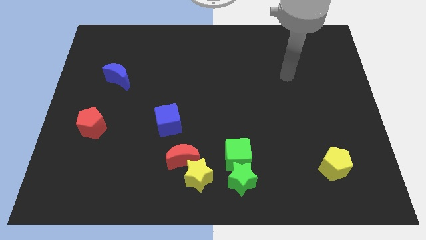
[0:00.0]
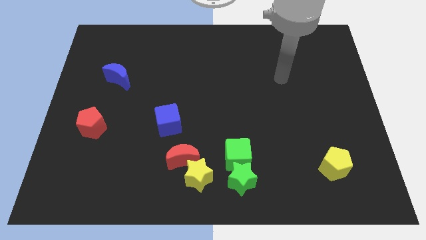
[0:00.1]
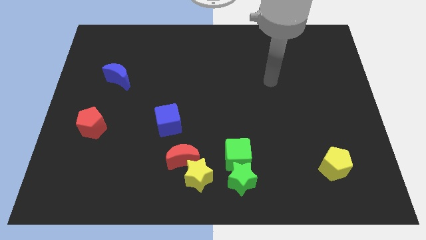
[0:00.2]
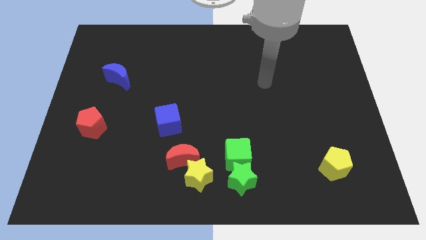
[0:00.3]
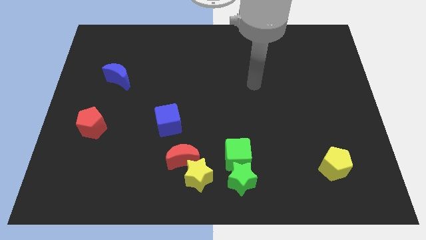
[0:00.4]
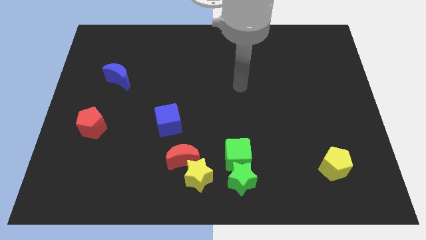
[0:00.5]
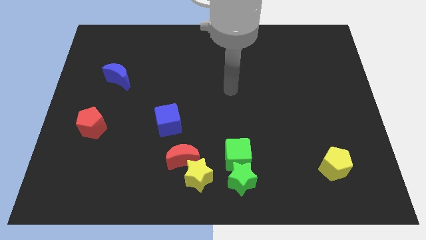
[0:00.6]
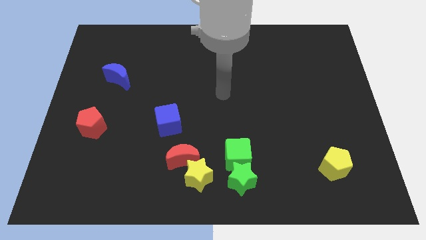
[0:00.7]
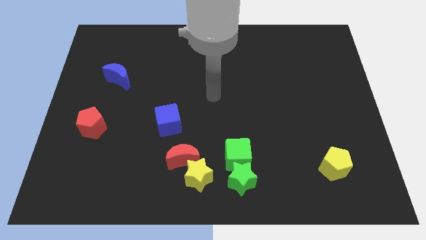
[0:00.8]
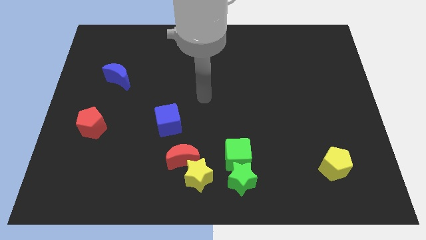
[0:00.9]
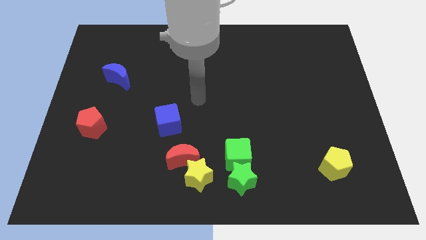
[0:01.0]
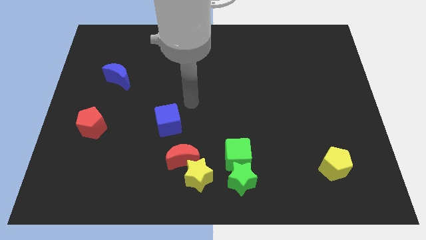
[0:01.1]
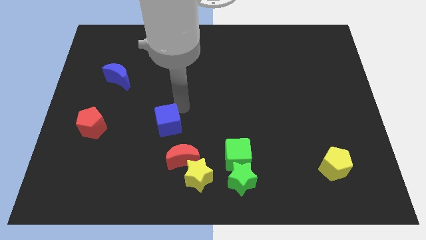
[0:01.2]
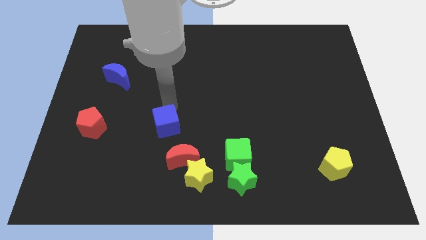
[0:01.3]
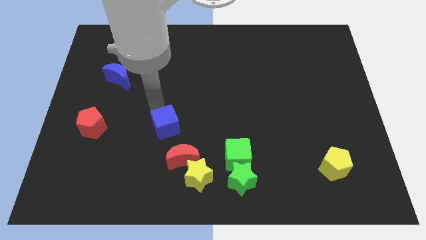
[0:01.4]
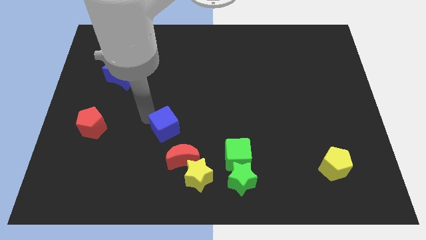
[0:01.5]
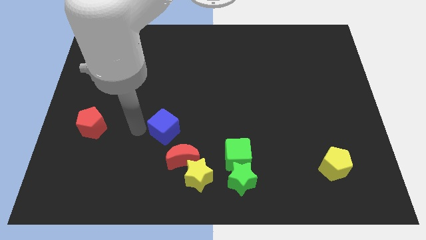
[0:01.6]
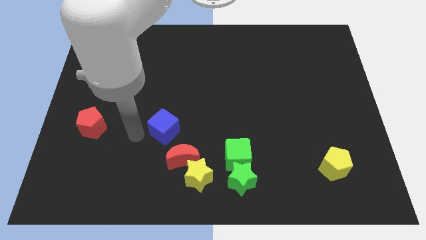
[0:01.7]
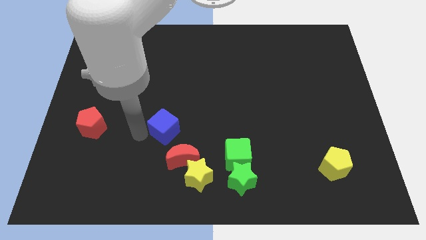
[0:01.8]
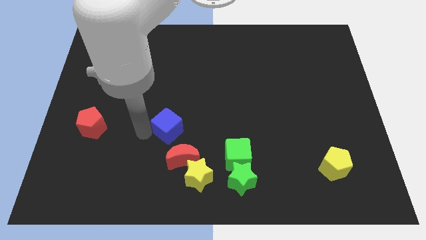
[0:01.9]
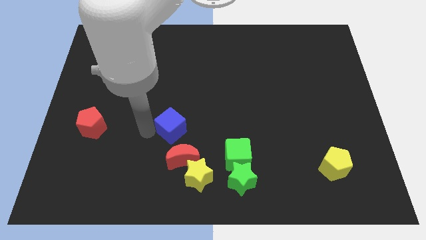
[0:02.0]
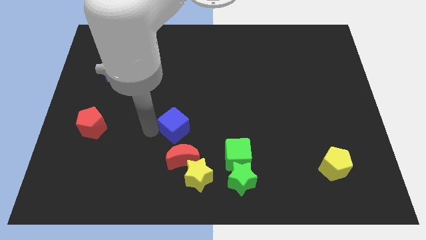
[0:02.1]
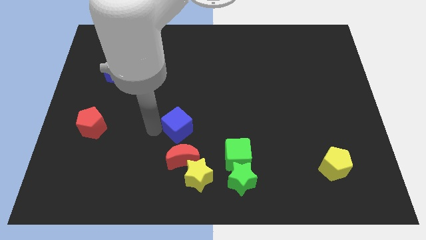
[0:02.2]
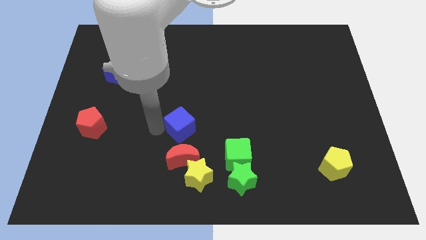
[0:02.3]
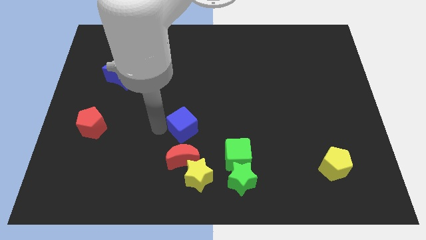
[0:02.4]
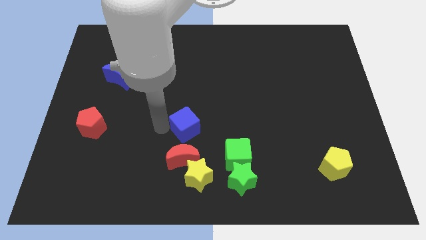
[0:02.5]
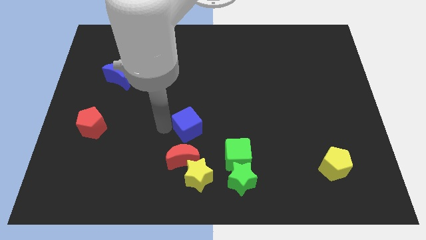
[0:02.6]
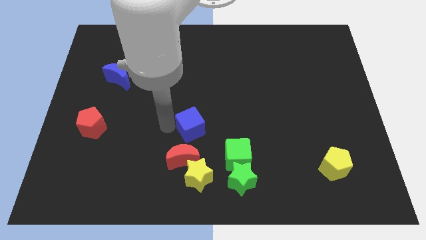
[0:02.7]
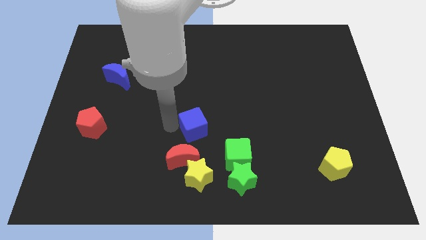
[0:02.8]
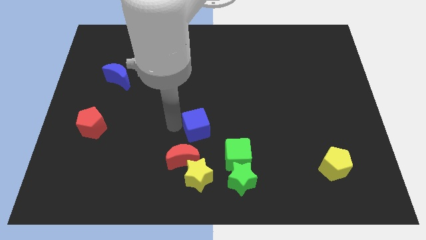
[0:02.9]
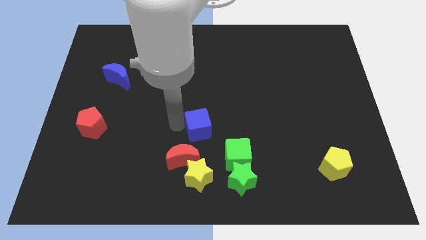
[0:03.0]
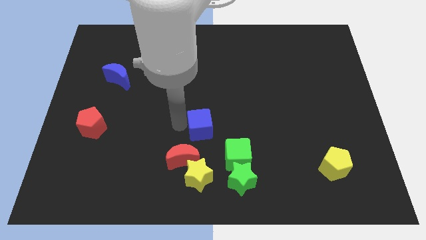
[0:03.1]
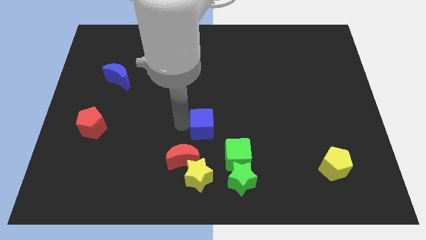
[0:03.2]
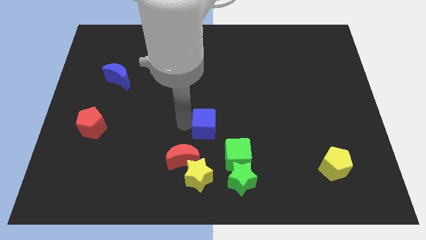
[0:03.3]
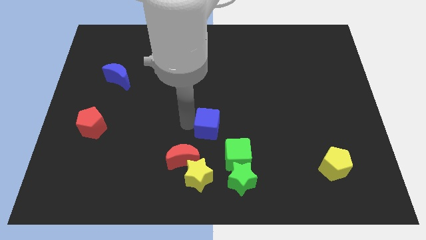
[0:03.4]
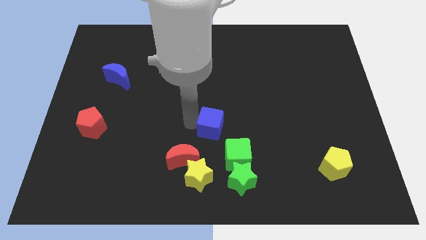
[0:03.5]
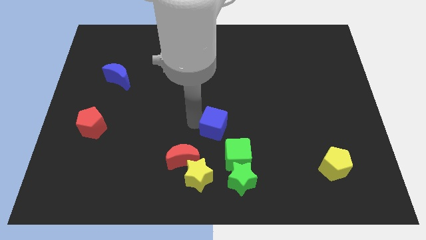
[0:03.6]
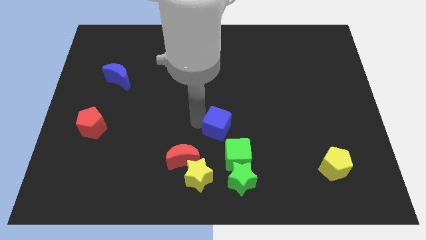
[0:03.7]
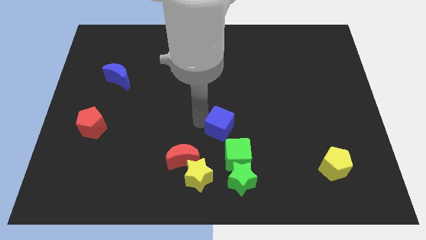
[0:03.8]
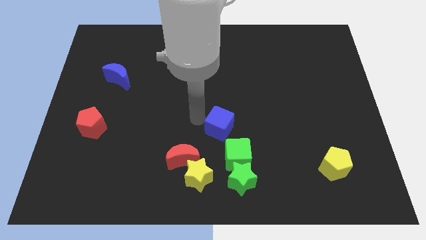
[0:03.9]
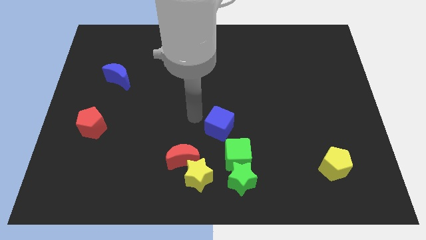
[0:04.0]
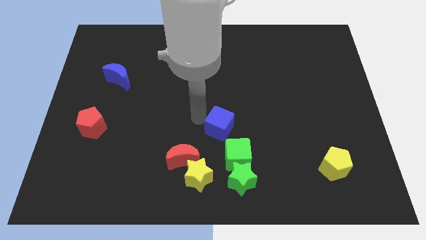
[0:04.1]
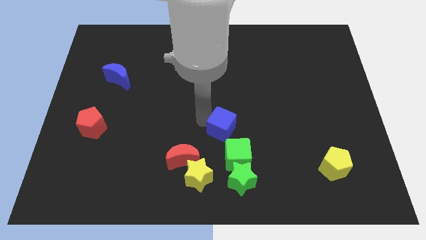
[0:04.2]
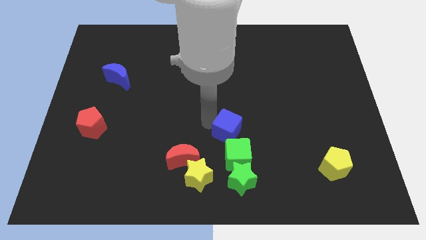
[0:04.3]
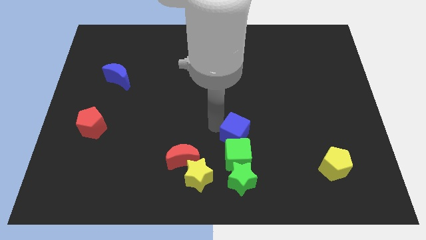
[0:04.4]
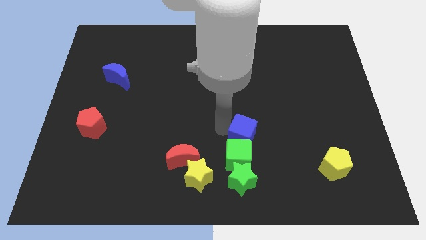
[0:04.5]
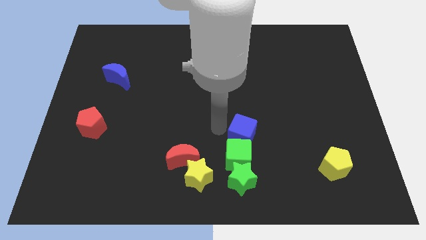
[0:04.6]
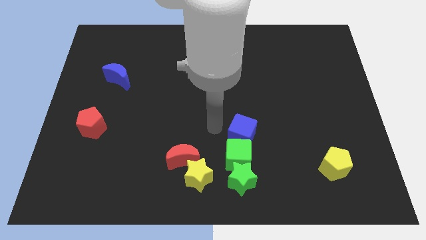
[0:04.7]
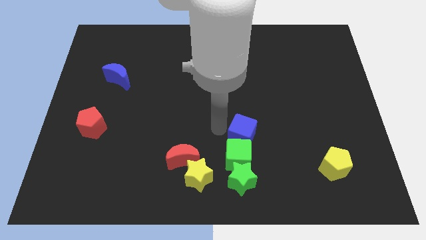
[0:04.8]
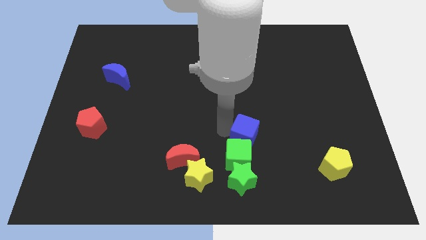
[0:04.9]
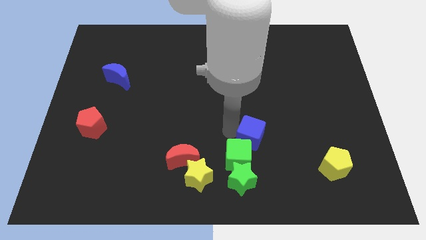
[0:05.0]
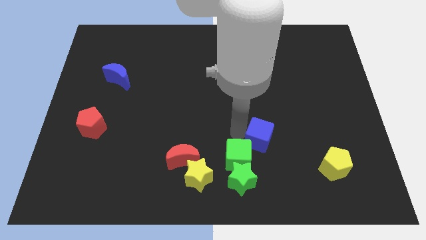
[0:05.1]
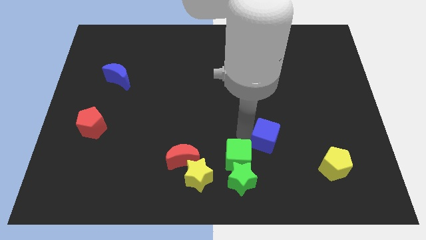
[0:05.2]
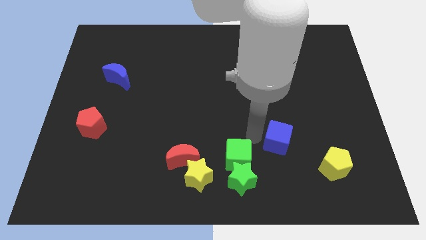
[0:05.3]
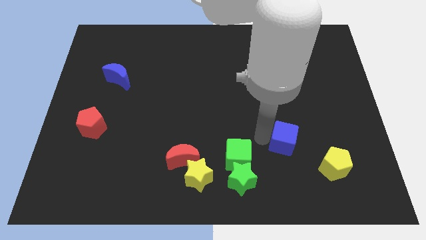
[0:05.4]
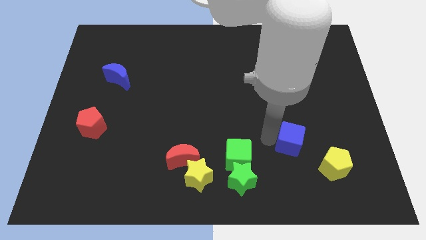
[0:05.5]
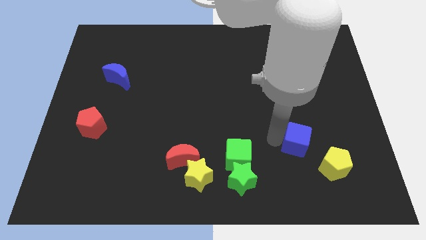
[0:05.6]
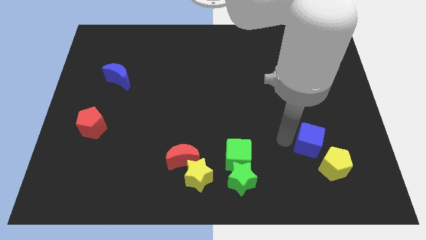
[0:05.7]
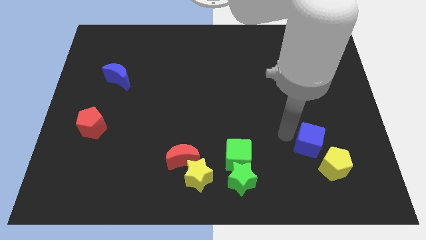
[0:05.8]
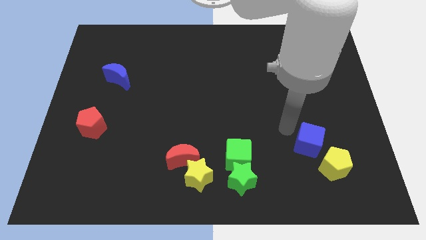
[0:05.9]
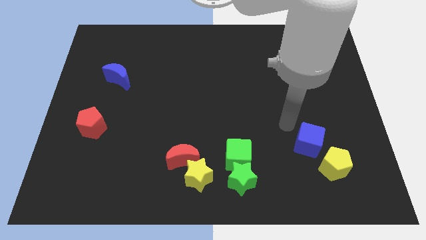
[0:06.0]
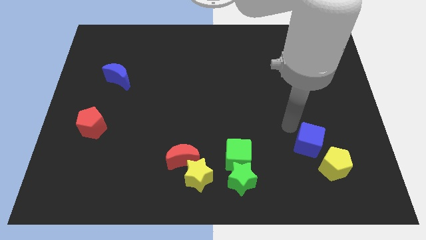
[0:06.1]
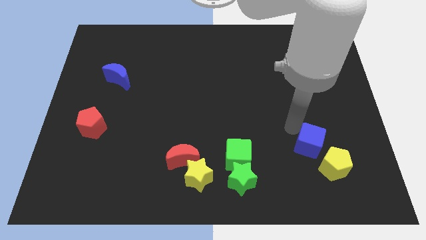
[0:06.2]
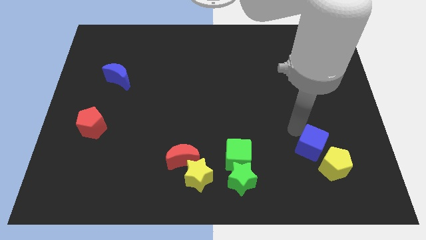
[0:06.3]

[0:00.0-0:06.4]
move the blue cube close to the yellow pentagon

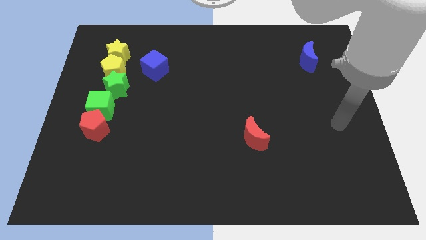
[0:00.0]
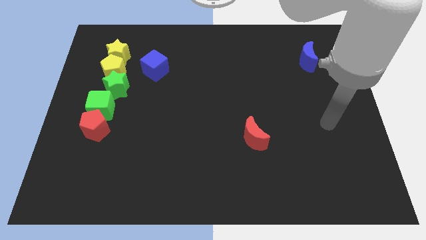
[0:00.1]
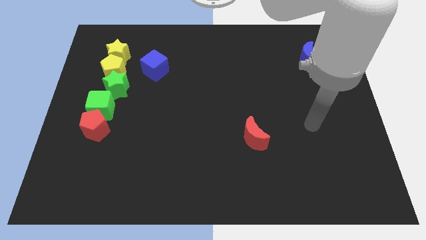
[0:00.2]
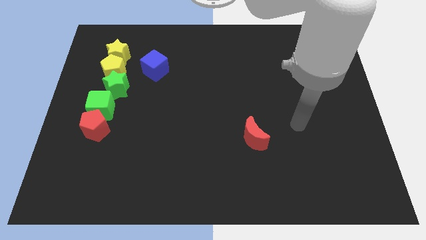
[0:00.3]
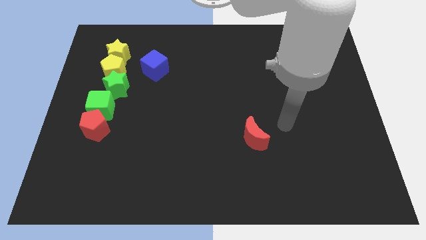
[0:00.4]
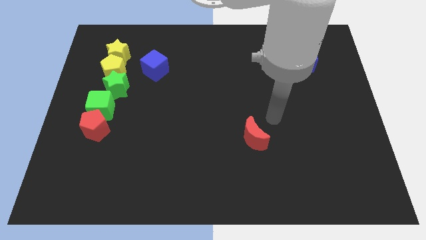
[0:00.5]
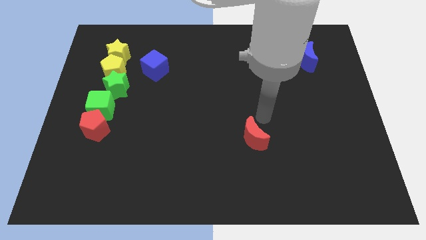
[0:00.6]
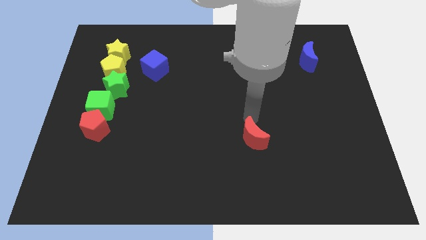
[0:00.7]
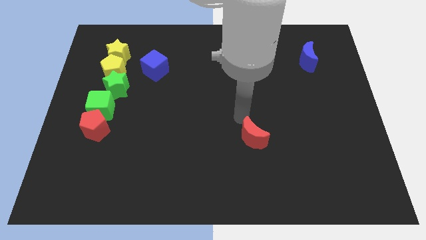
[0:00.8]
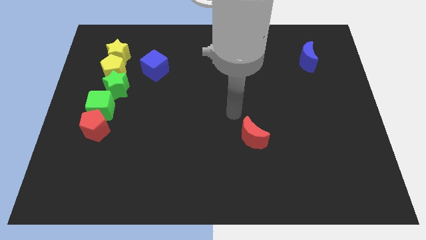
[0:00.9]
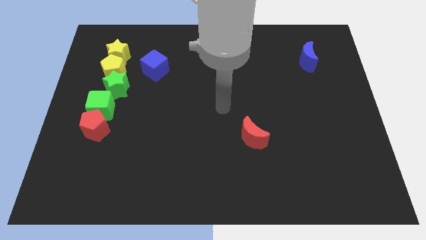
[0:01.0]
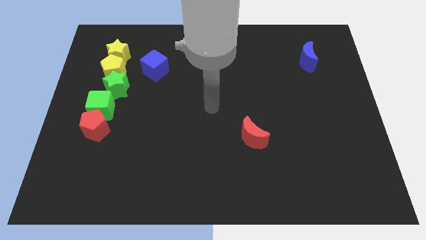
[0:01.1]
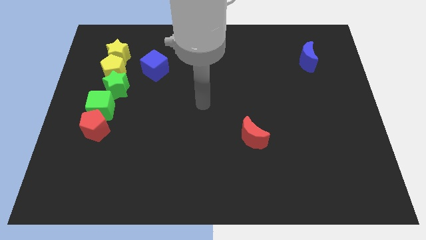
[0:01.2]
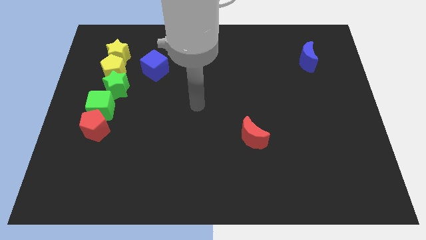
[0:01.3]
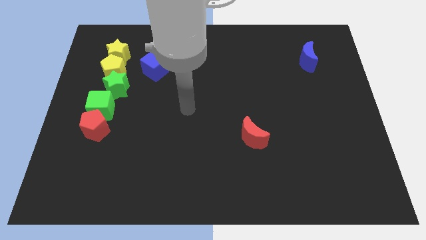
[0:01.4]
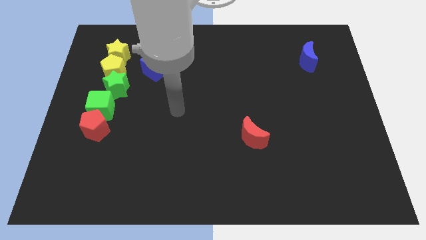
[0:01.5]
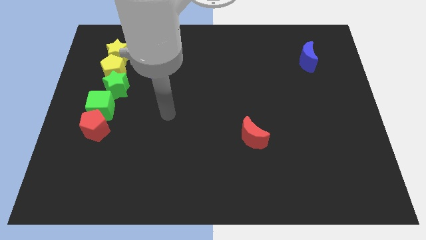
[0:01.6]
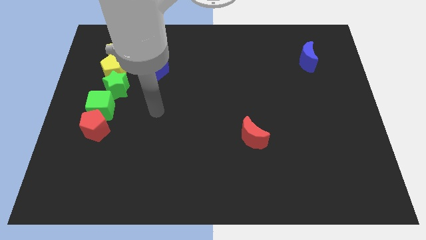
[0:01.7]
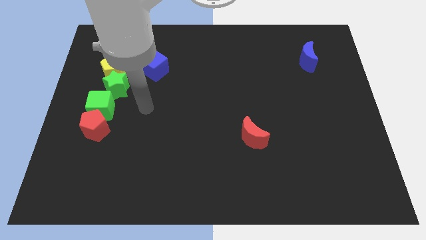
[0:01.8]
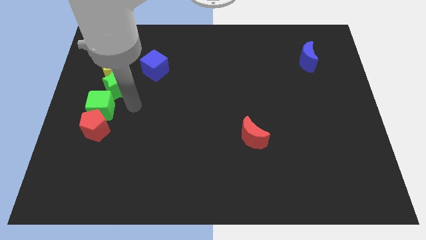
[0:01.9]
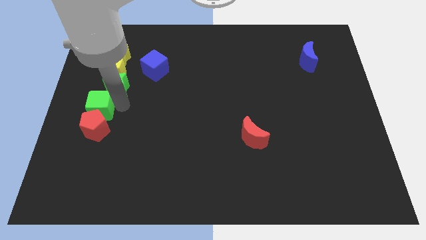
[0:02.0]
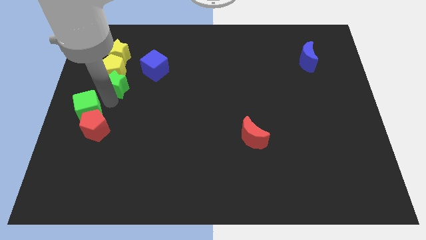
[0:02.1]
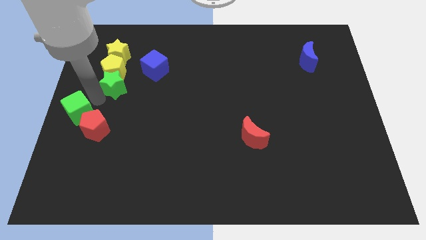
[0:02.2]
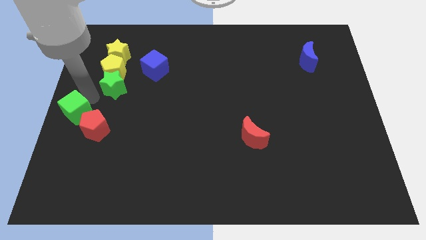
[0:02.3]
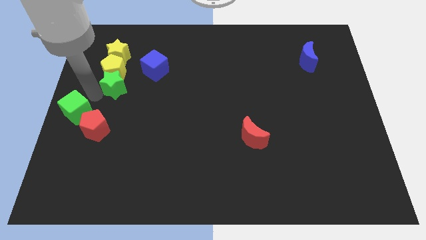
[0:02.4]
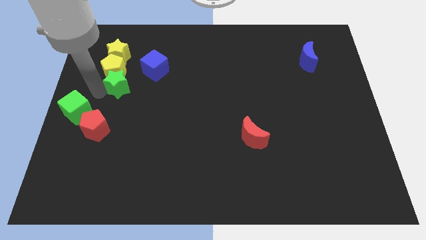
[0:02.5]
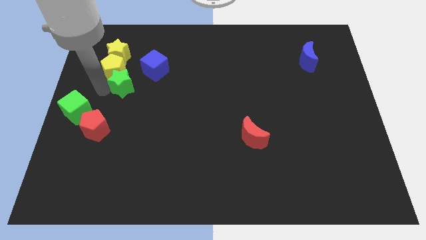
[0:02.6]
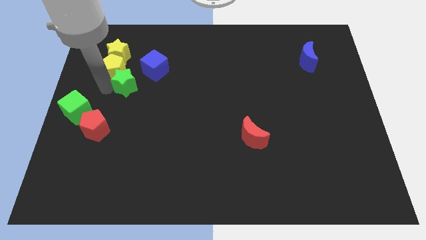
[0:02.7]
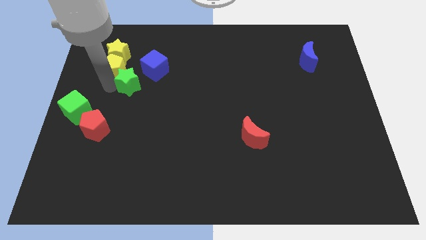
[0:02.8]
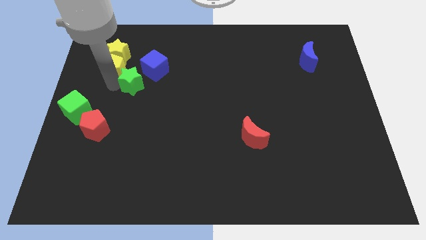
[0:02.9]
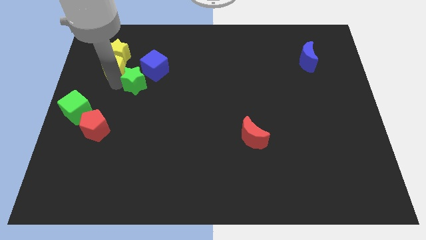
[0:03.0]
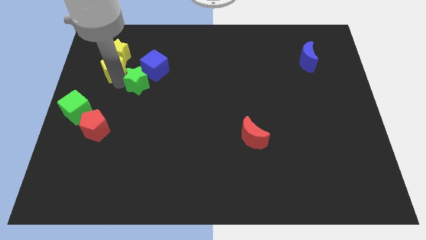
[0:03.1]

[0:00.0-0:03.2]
move the green star to the blue cube
